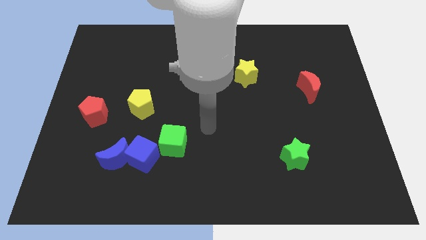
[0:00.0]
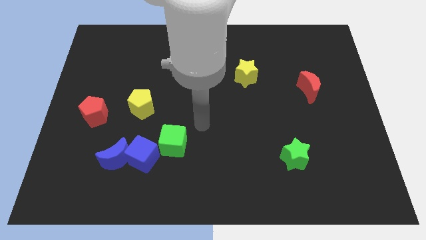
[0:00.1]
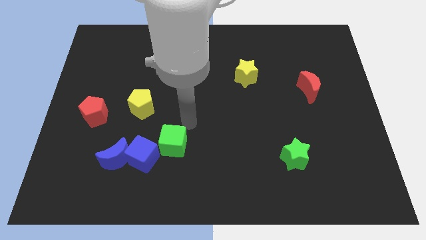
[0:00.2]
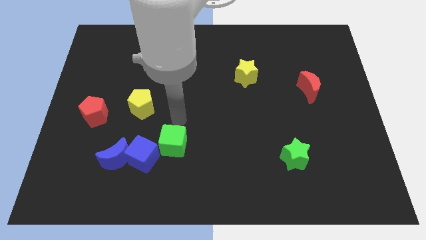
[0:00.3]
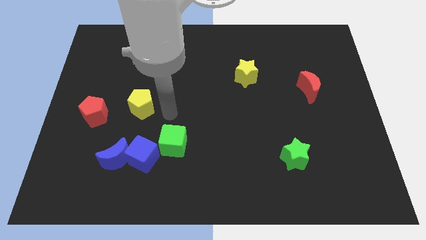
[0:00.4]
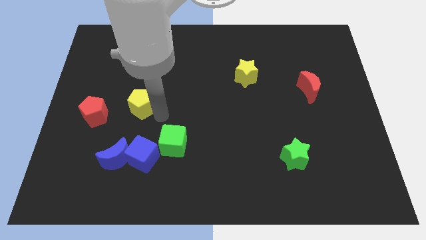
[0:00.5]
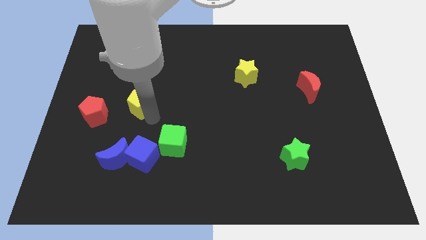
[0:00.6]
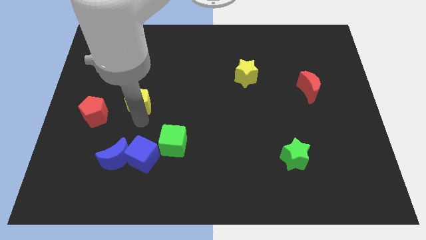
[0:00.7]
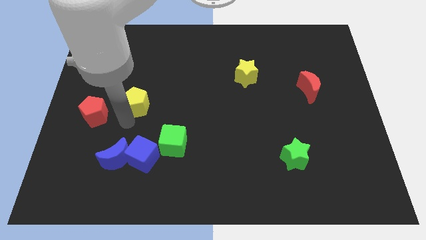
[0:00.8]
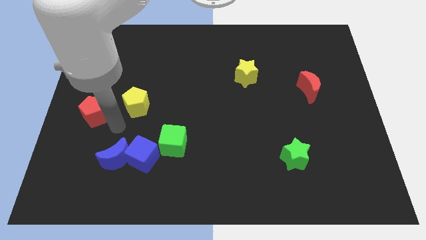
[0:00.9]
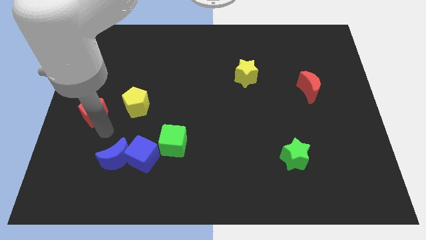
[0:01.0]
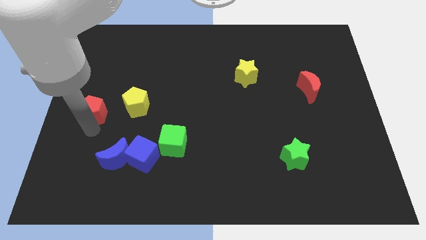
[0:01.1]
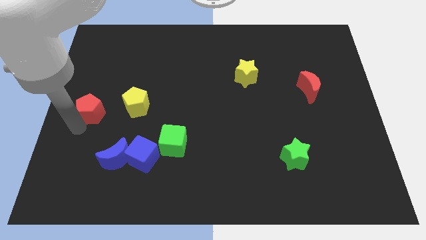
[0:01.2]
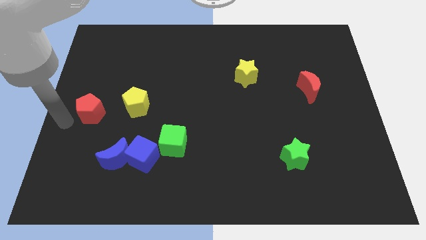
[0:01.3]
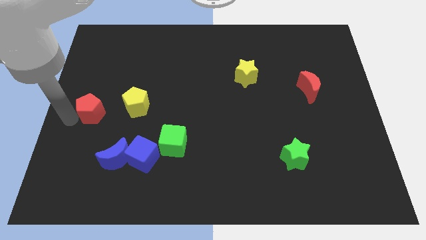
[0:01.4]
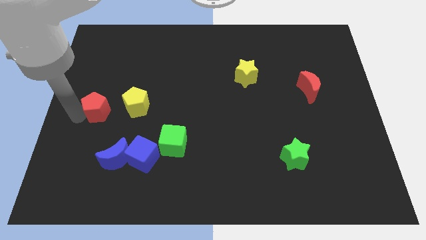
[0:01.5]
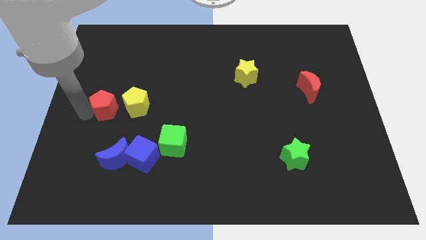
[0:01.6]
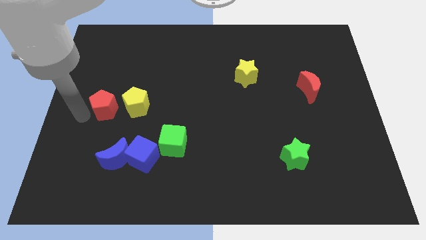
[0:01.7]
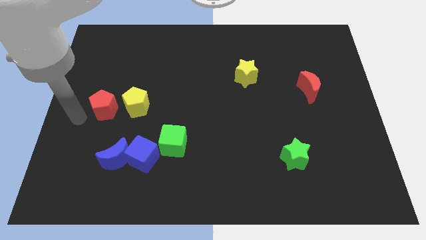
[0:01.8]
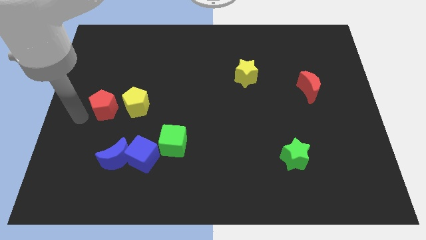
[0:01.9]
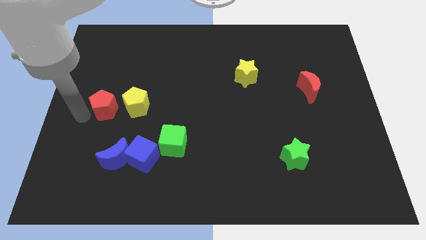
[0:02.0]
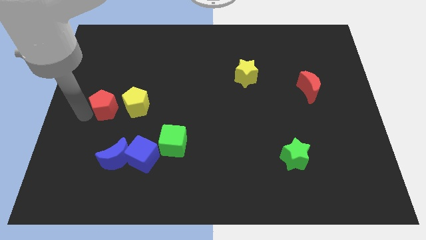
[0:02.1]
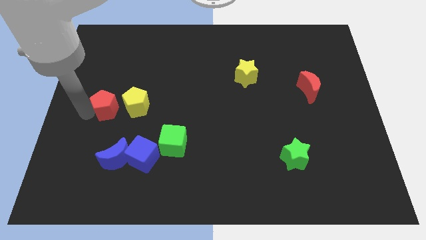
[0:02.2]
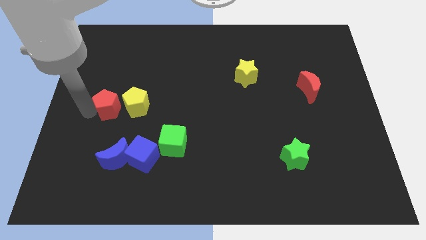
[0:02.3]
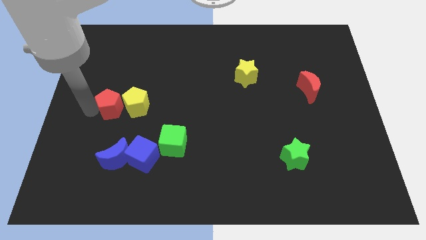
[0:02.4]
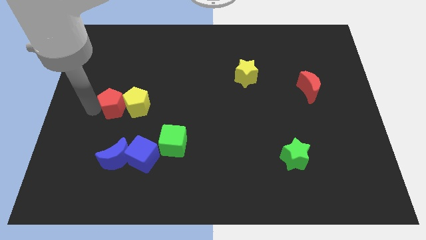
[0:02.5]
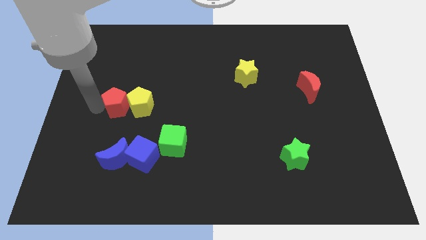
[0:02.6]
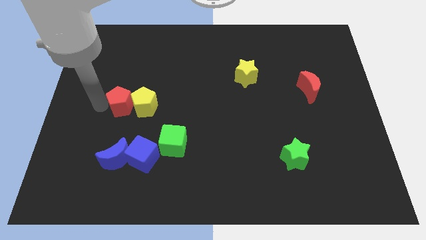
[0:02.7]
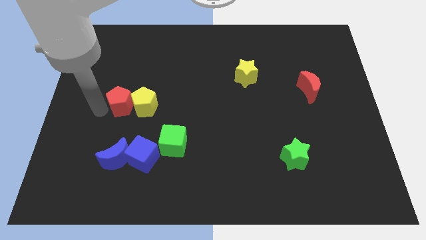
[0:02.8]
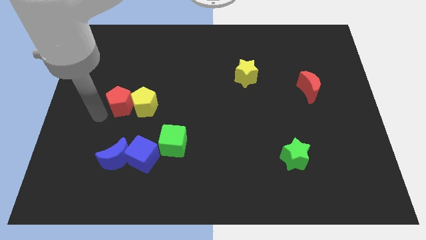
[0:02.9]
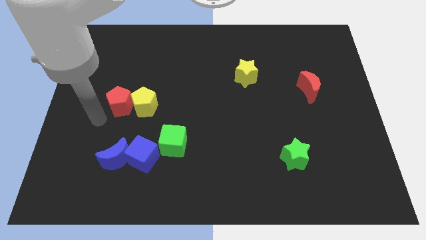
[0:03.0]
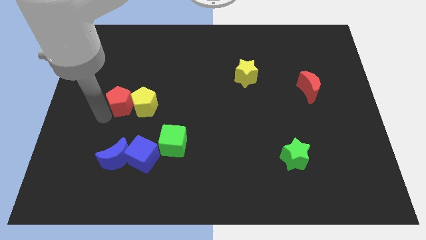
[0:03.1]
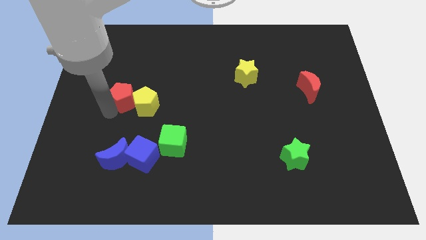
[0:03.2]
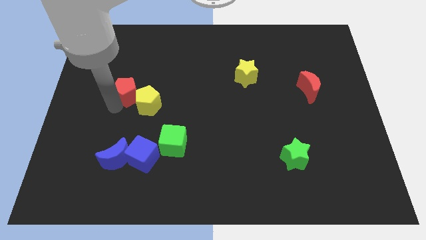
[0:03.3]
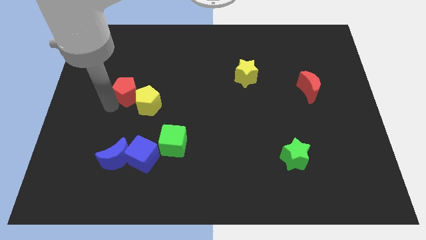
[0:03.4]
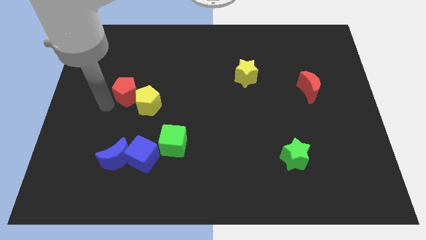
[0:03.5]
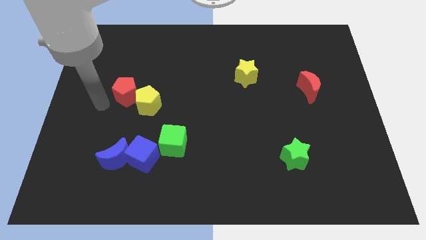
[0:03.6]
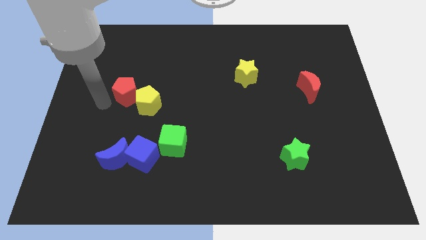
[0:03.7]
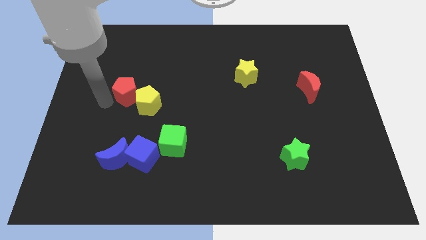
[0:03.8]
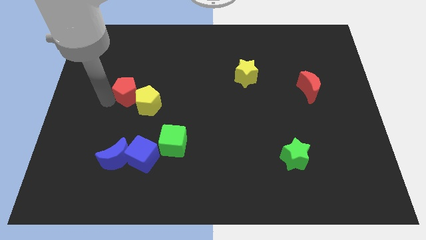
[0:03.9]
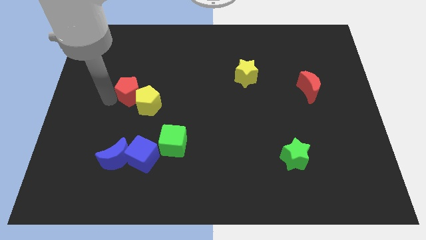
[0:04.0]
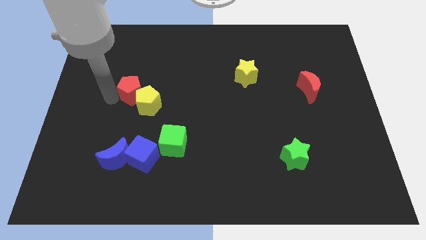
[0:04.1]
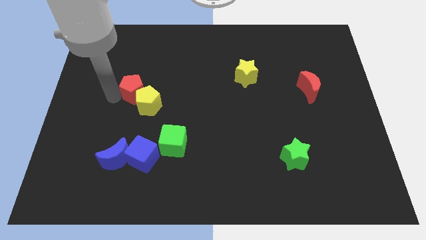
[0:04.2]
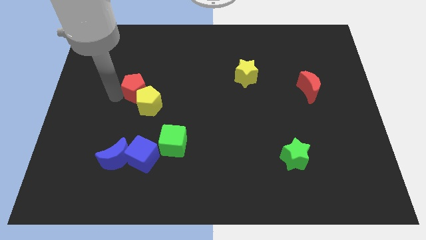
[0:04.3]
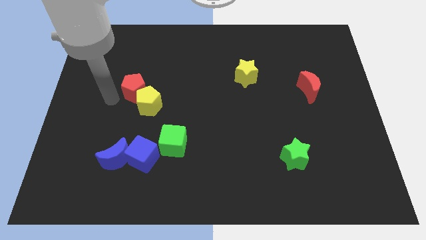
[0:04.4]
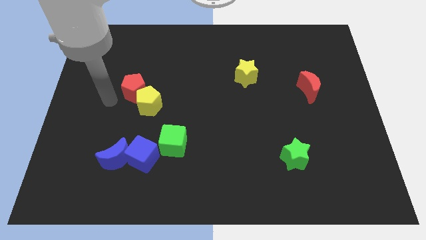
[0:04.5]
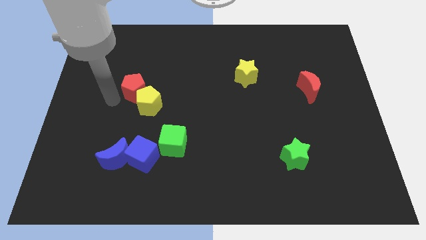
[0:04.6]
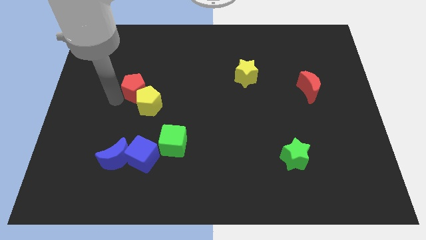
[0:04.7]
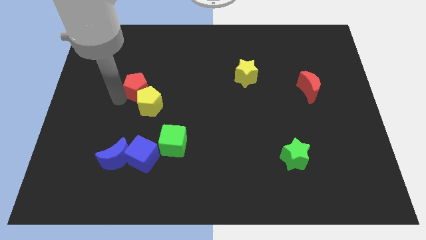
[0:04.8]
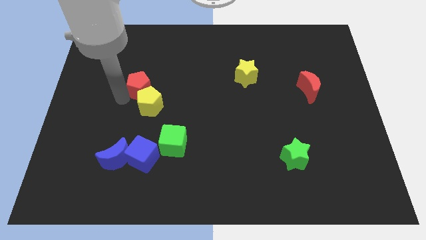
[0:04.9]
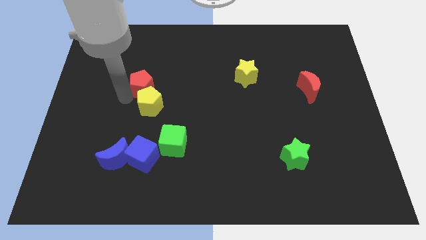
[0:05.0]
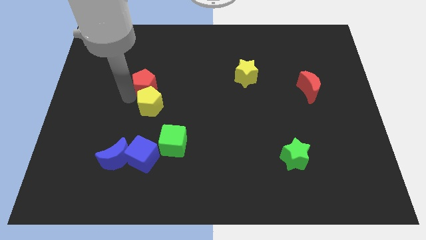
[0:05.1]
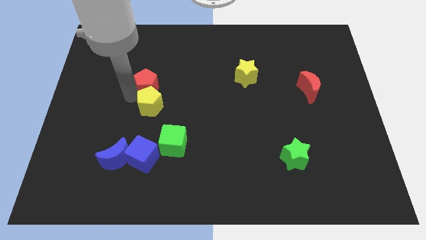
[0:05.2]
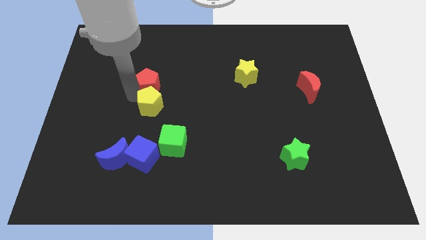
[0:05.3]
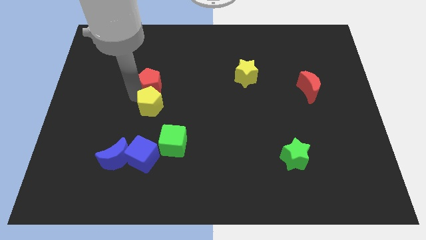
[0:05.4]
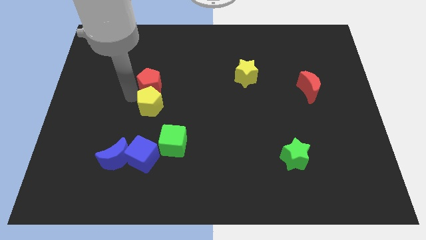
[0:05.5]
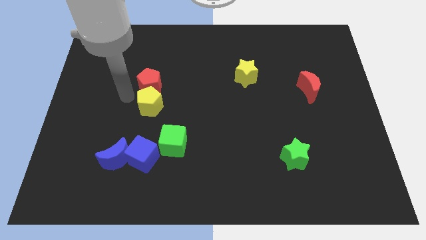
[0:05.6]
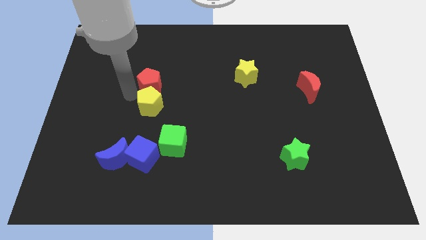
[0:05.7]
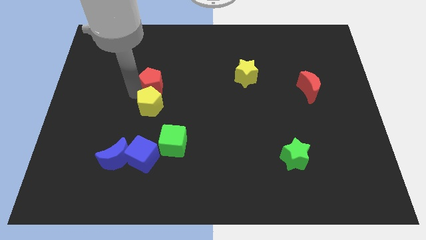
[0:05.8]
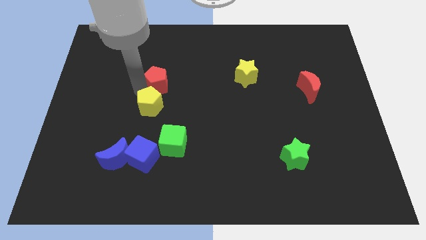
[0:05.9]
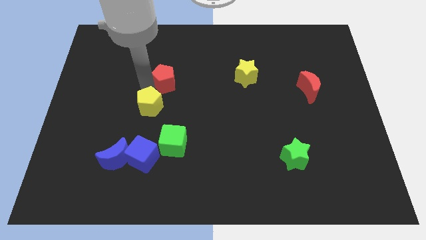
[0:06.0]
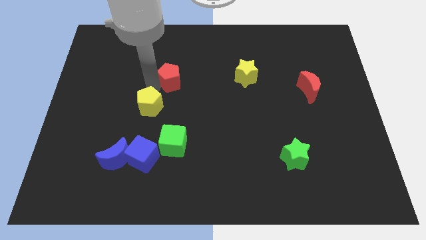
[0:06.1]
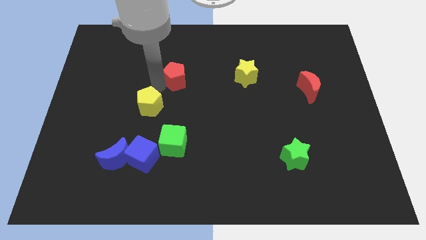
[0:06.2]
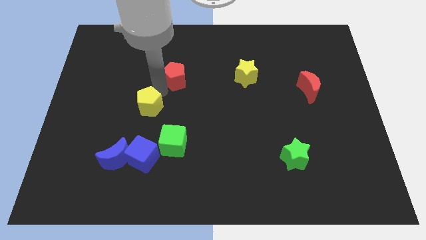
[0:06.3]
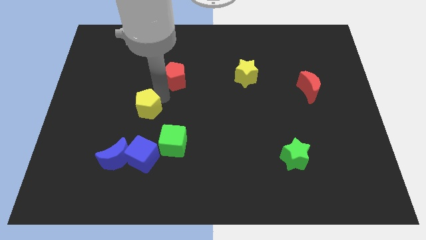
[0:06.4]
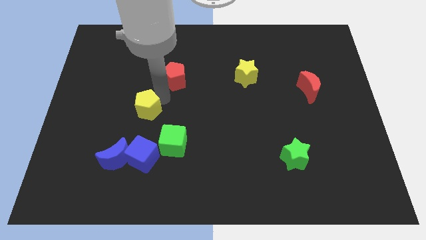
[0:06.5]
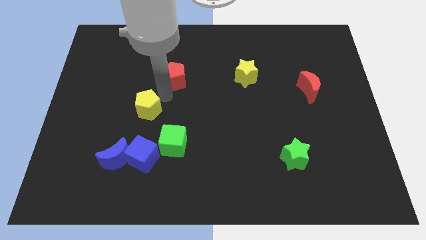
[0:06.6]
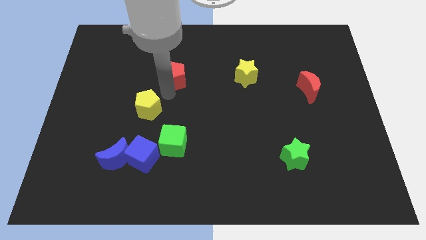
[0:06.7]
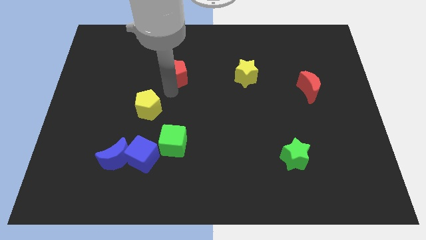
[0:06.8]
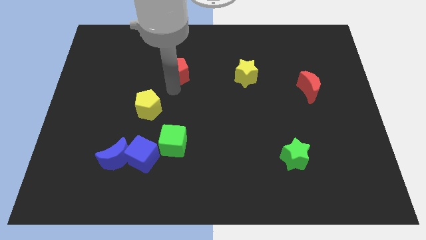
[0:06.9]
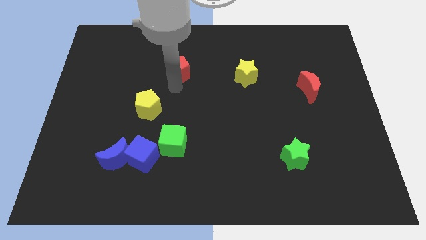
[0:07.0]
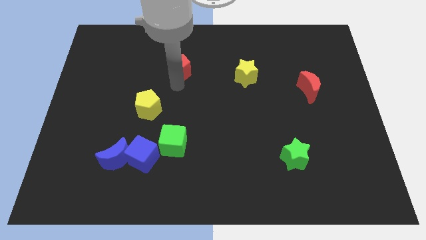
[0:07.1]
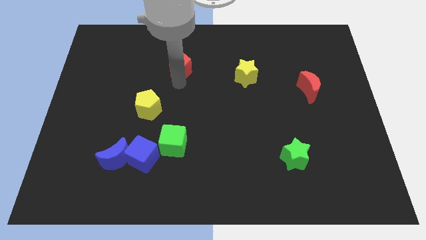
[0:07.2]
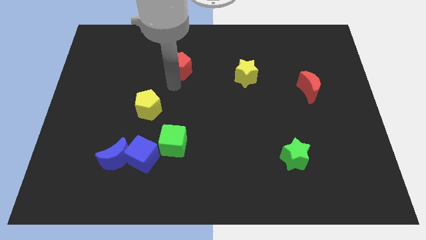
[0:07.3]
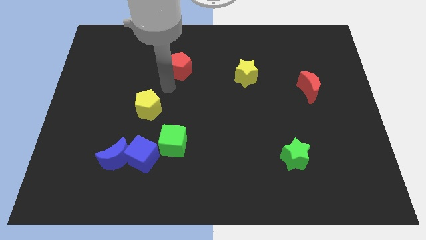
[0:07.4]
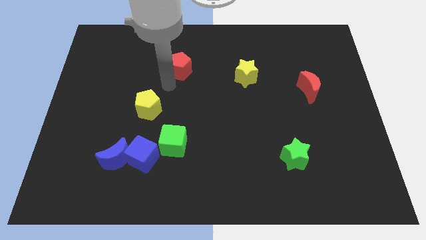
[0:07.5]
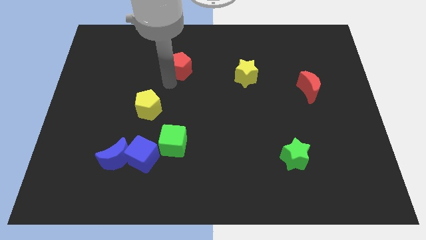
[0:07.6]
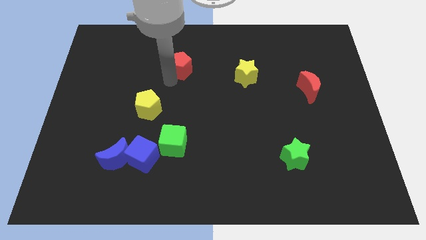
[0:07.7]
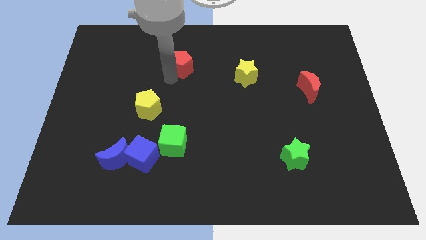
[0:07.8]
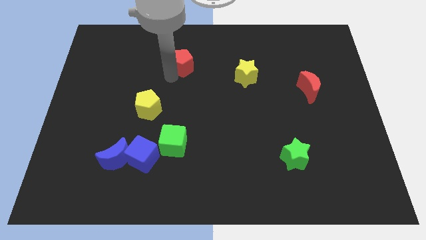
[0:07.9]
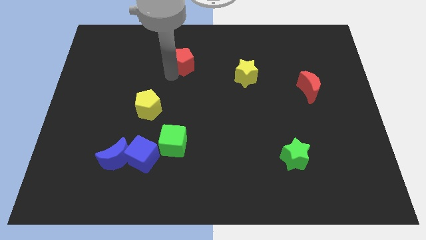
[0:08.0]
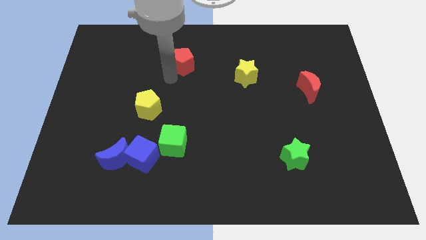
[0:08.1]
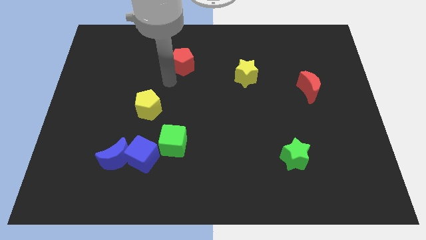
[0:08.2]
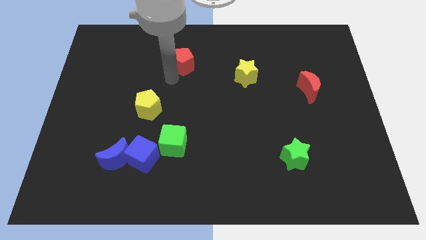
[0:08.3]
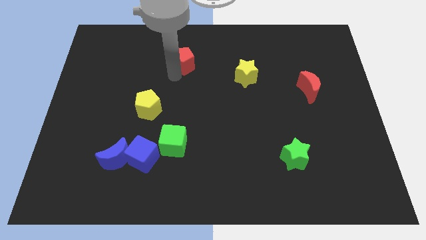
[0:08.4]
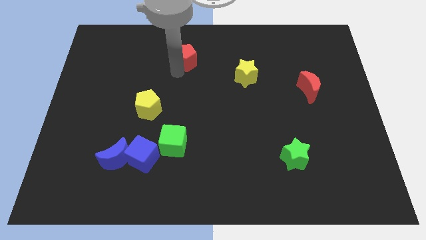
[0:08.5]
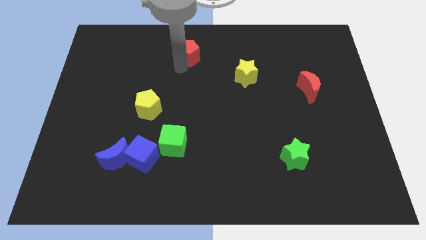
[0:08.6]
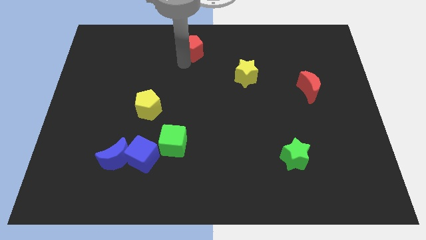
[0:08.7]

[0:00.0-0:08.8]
put the red pentagon to the top side
